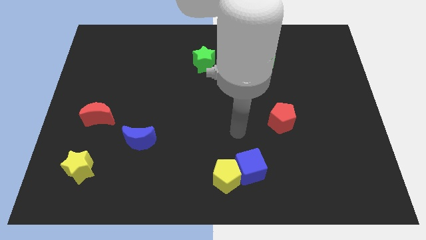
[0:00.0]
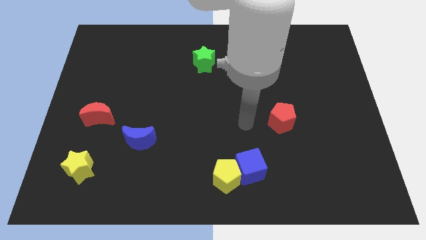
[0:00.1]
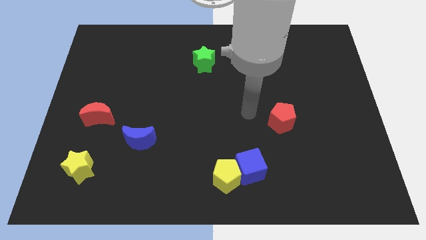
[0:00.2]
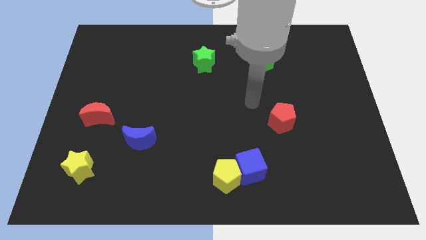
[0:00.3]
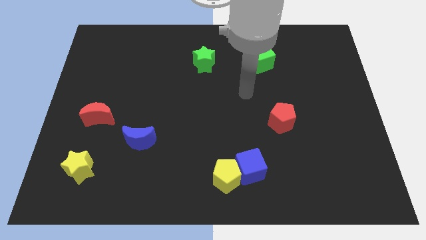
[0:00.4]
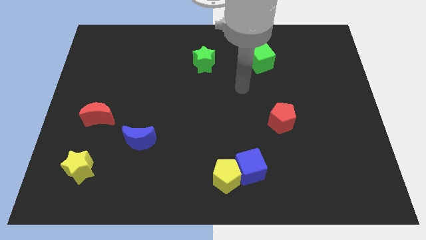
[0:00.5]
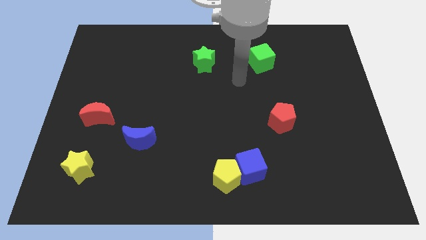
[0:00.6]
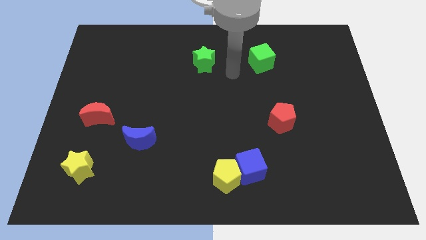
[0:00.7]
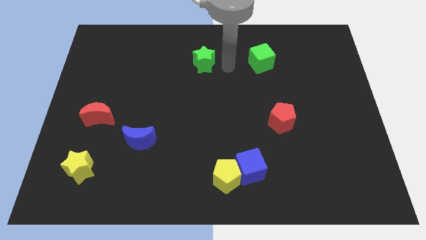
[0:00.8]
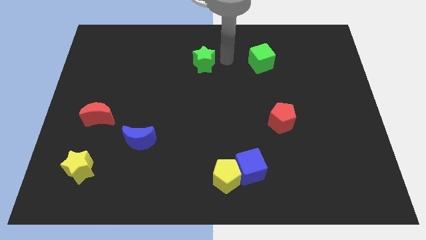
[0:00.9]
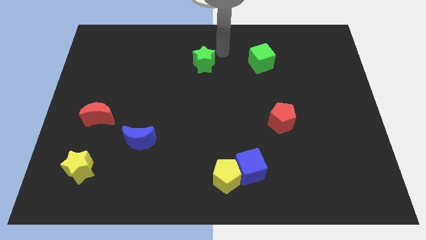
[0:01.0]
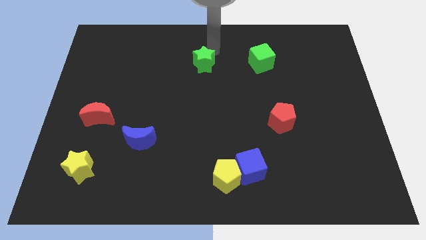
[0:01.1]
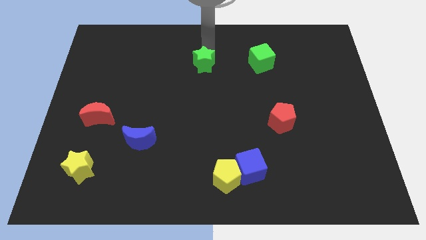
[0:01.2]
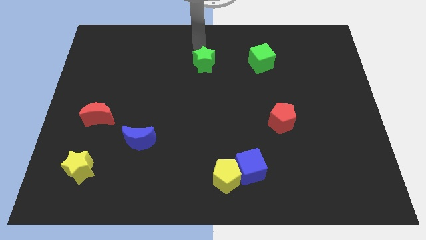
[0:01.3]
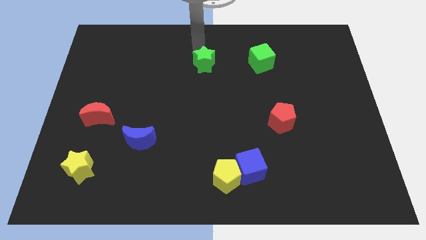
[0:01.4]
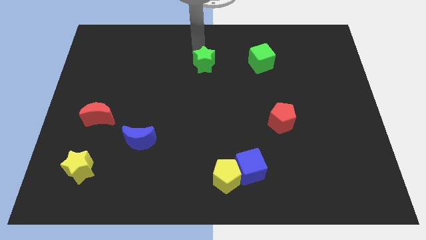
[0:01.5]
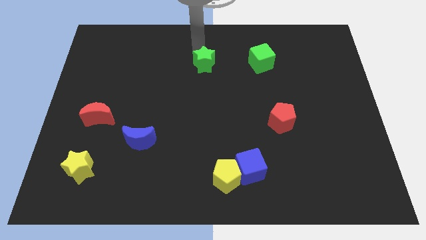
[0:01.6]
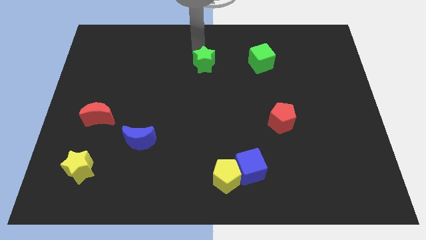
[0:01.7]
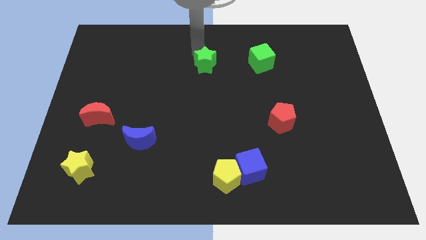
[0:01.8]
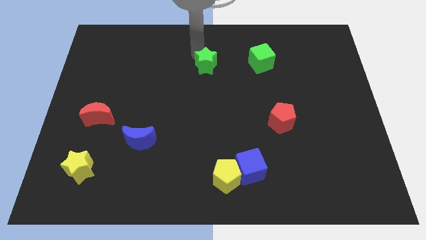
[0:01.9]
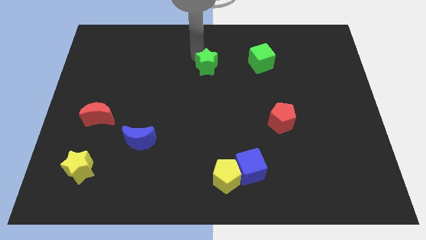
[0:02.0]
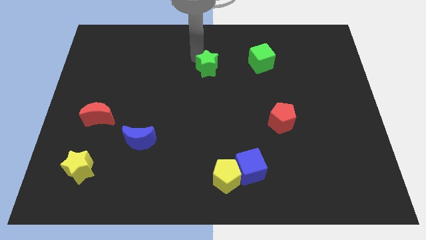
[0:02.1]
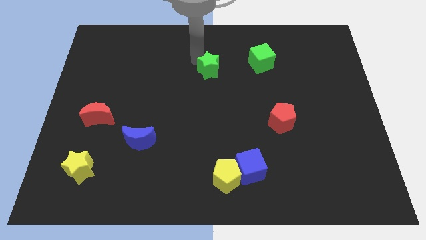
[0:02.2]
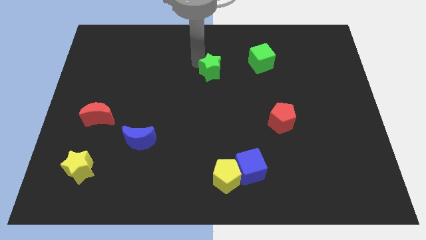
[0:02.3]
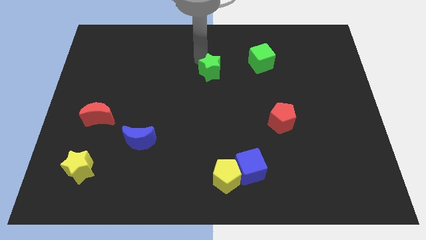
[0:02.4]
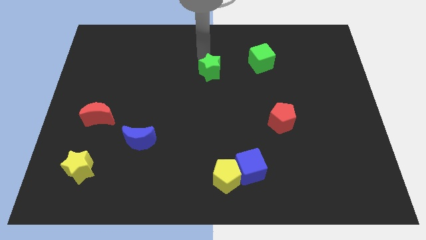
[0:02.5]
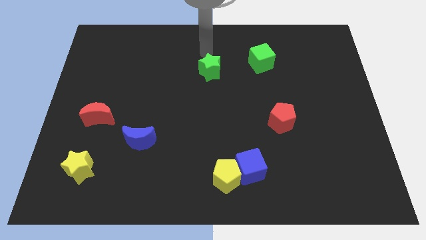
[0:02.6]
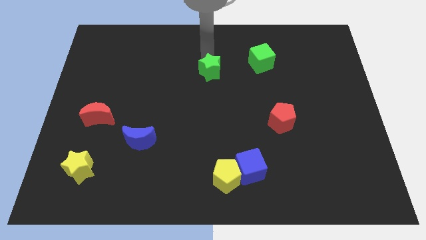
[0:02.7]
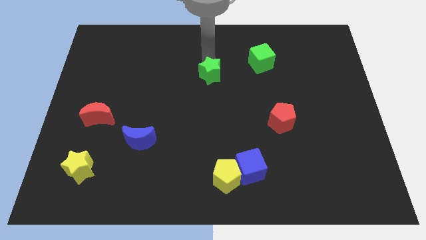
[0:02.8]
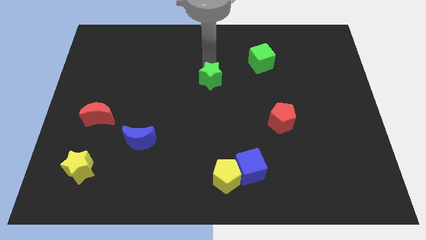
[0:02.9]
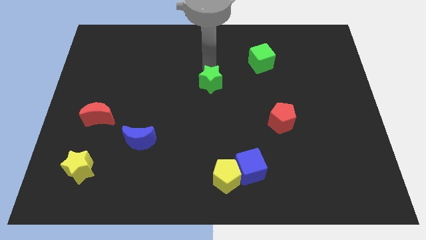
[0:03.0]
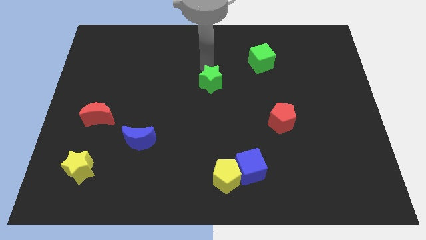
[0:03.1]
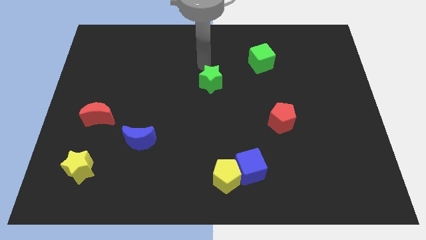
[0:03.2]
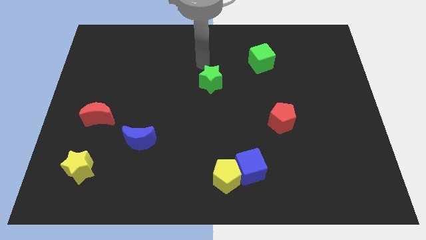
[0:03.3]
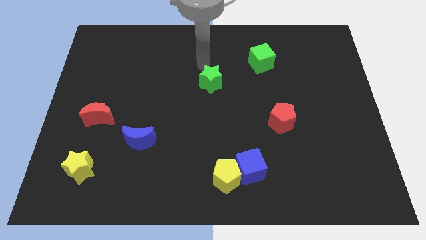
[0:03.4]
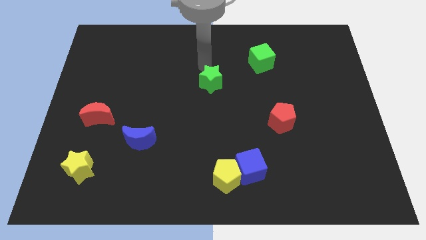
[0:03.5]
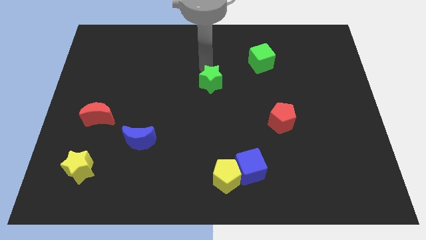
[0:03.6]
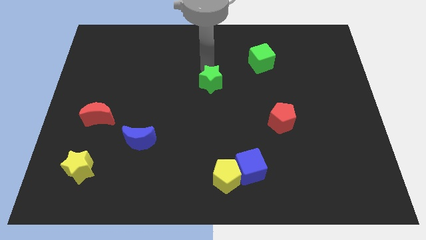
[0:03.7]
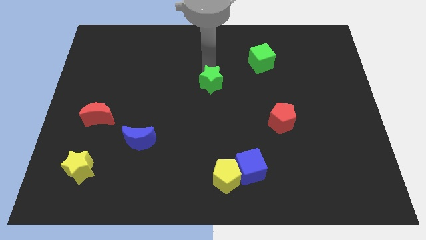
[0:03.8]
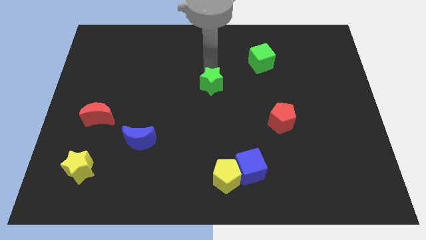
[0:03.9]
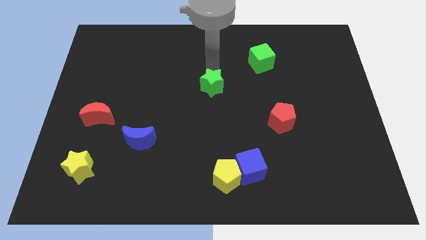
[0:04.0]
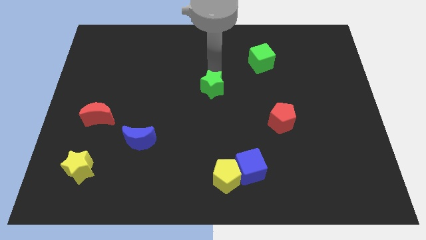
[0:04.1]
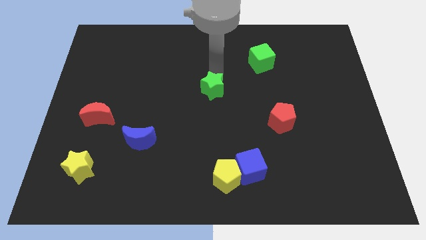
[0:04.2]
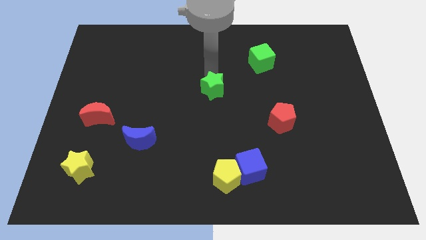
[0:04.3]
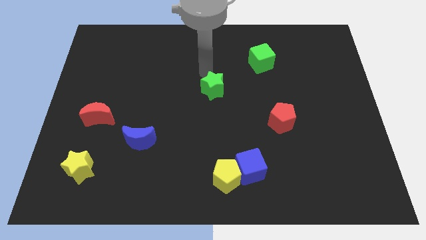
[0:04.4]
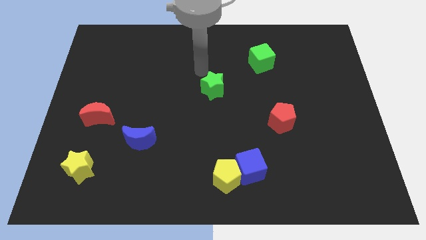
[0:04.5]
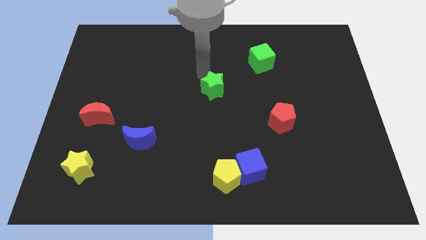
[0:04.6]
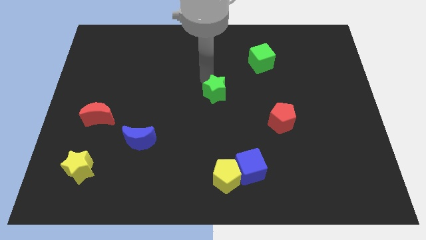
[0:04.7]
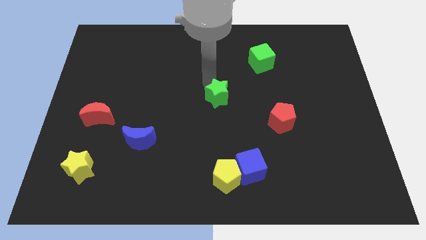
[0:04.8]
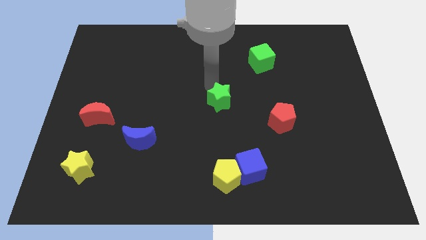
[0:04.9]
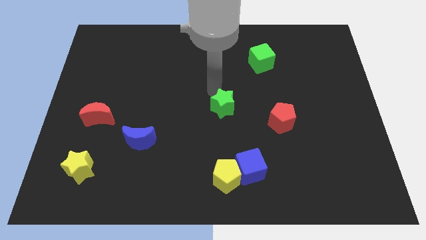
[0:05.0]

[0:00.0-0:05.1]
push the green star to the left side of the red pentagon

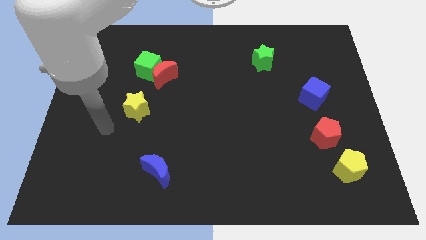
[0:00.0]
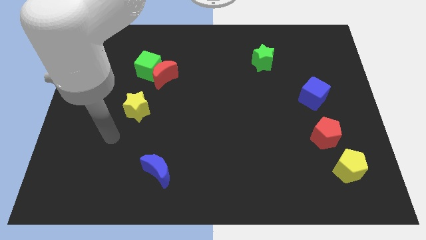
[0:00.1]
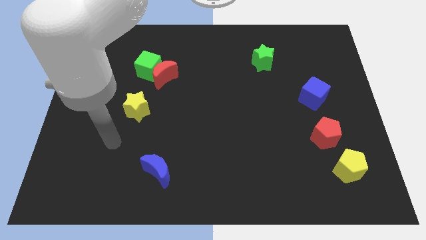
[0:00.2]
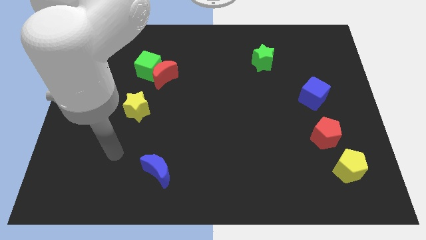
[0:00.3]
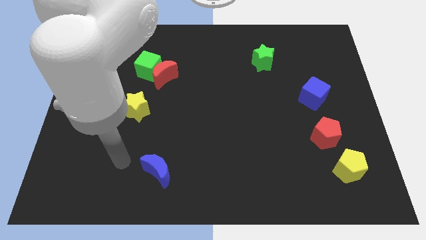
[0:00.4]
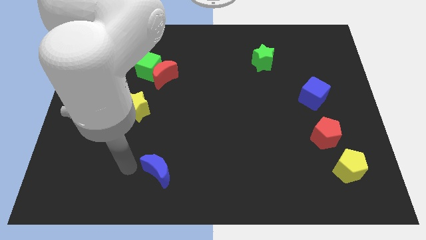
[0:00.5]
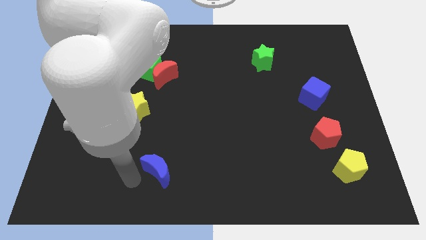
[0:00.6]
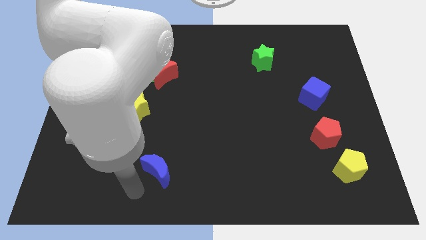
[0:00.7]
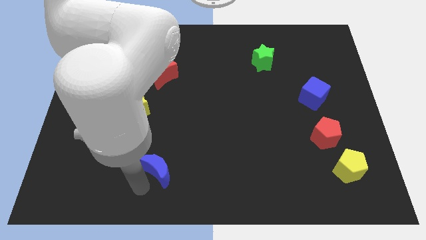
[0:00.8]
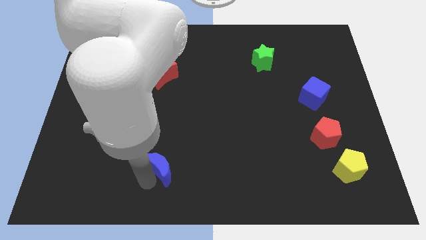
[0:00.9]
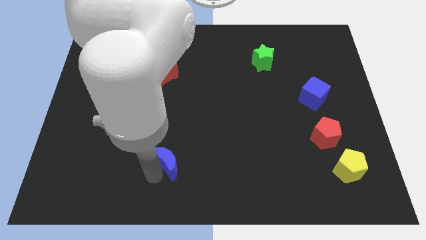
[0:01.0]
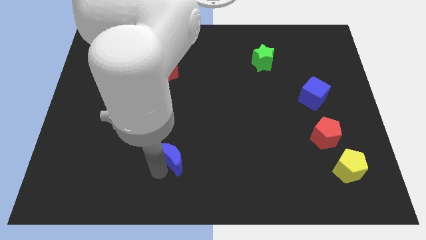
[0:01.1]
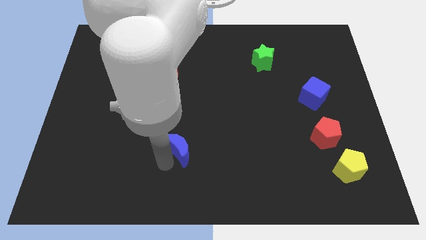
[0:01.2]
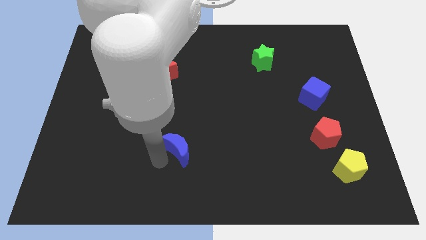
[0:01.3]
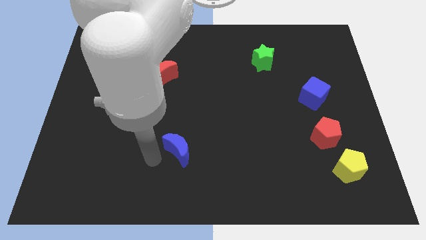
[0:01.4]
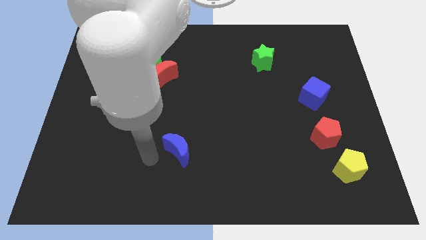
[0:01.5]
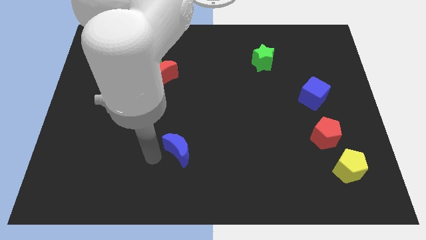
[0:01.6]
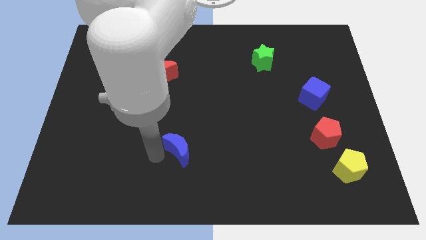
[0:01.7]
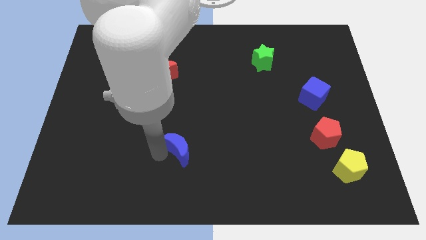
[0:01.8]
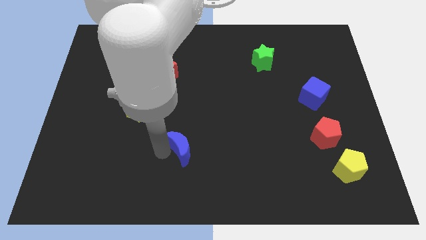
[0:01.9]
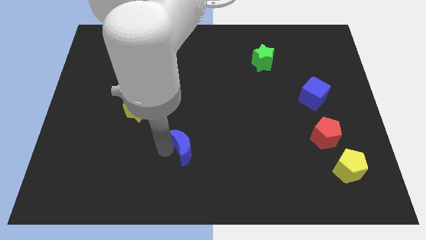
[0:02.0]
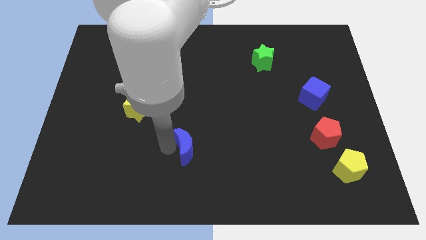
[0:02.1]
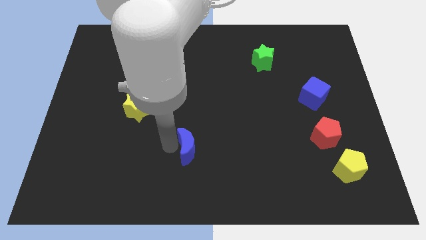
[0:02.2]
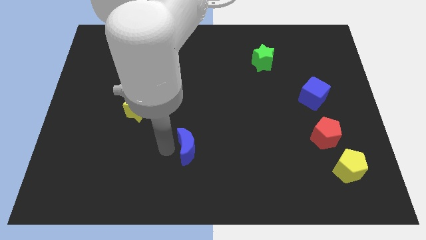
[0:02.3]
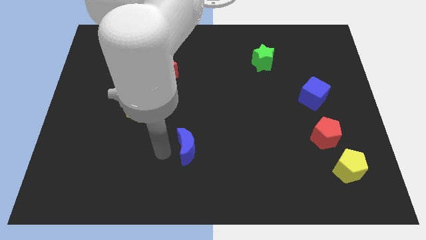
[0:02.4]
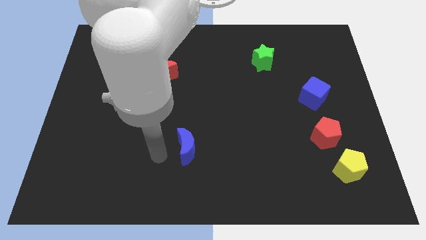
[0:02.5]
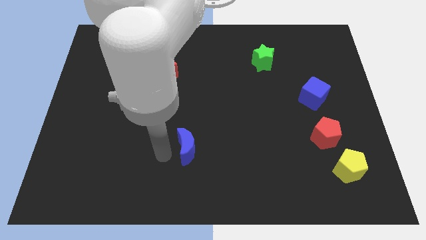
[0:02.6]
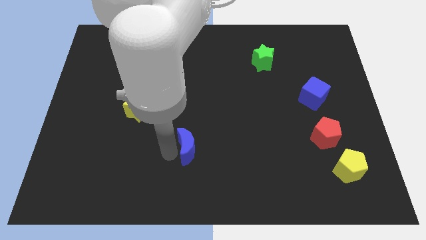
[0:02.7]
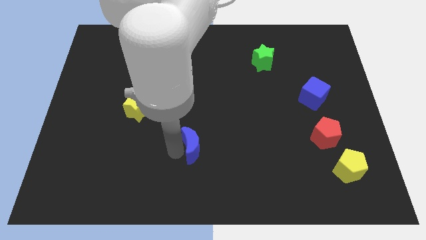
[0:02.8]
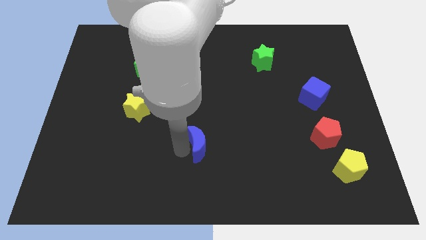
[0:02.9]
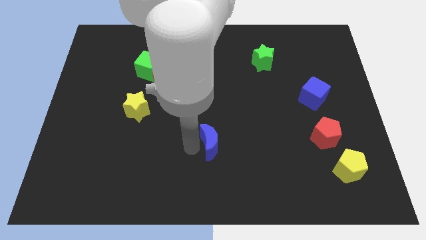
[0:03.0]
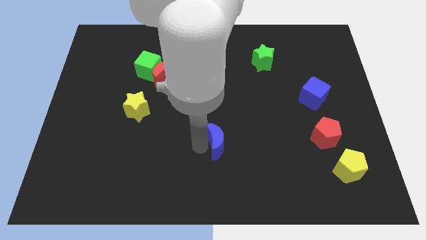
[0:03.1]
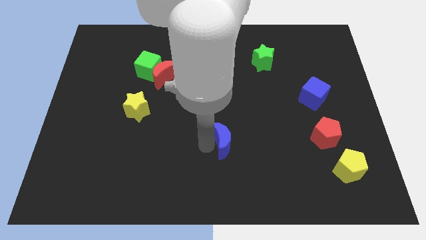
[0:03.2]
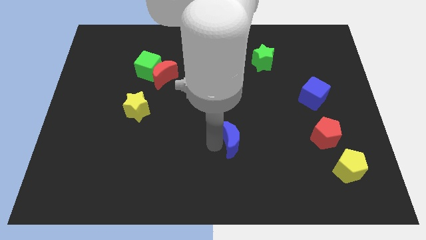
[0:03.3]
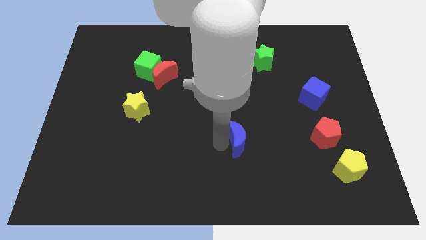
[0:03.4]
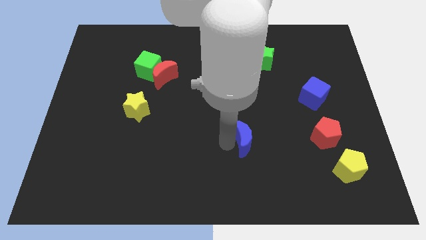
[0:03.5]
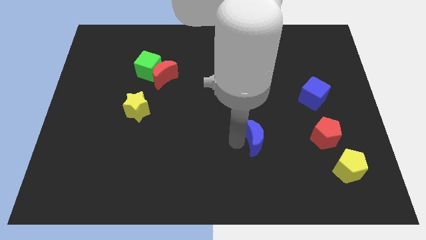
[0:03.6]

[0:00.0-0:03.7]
move the blue moon just left of the red pentagon
